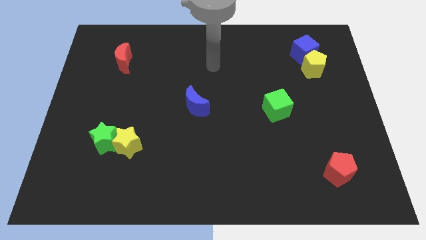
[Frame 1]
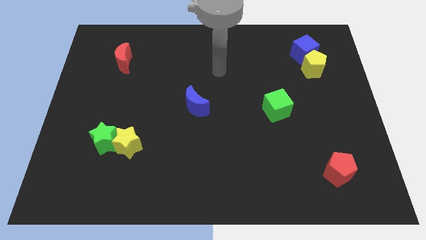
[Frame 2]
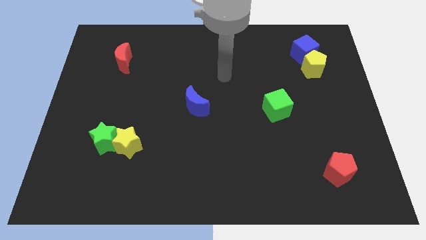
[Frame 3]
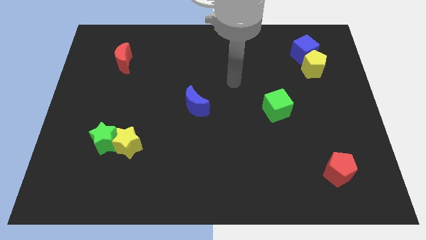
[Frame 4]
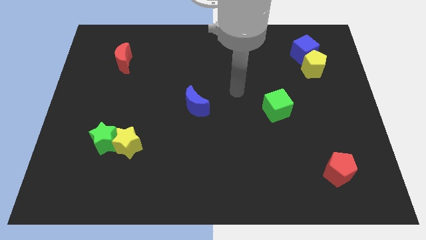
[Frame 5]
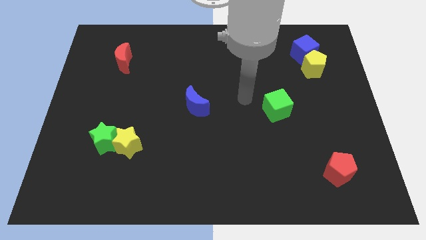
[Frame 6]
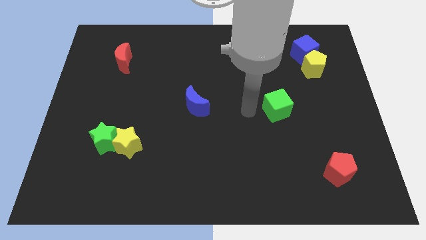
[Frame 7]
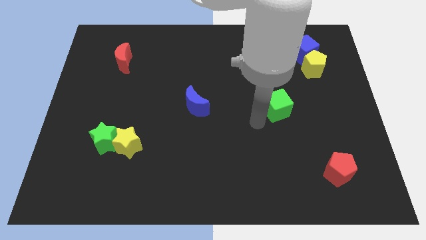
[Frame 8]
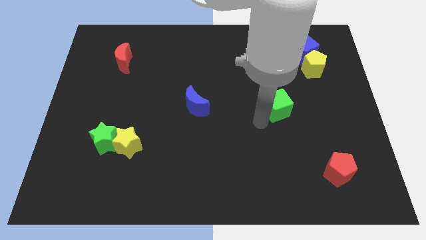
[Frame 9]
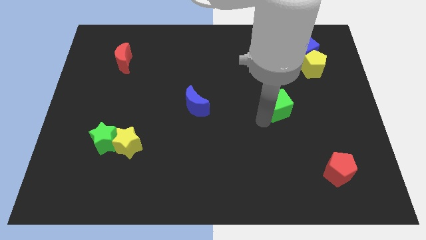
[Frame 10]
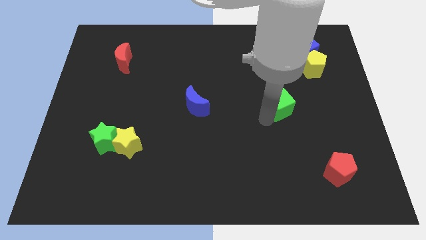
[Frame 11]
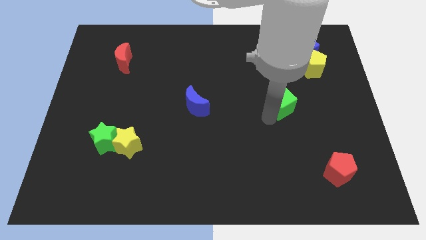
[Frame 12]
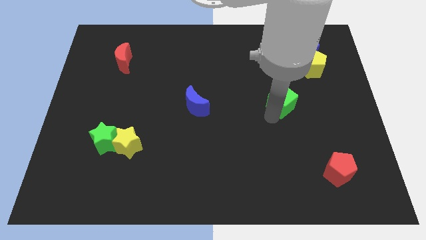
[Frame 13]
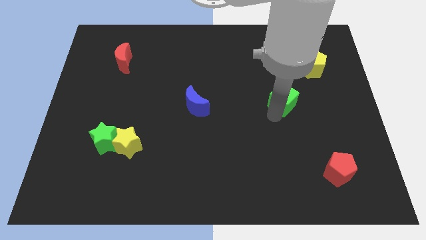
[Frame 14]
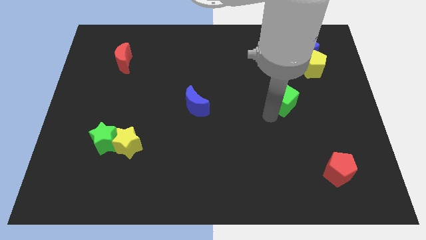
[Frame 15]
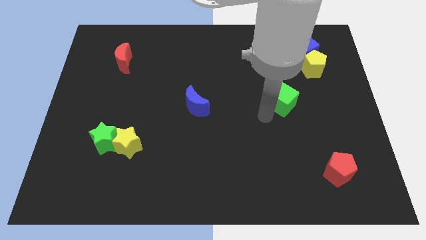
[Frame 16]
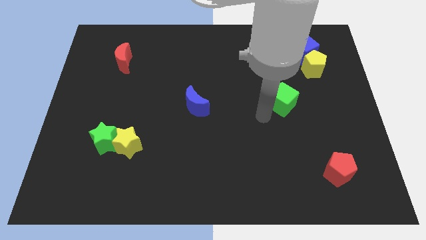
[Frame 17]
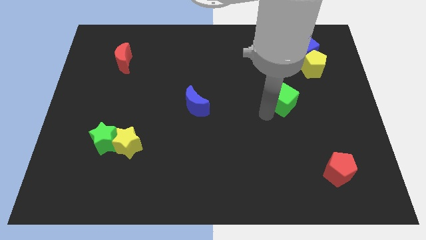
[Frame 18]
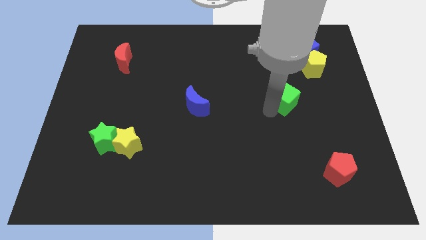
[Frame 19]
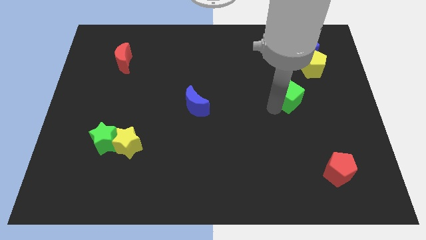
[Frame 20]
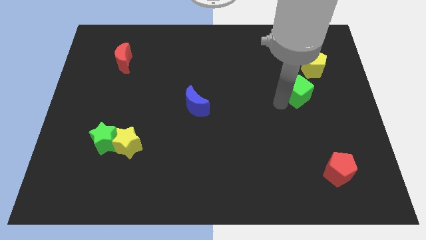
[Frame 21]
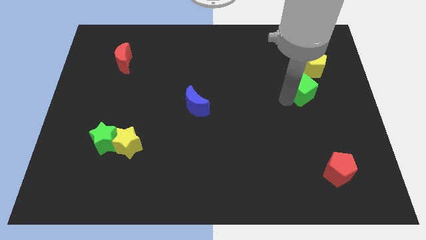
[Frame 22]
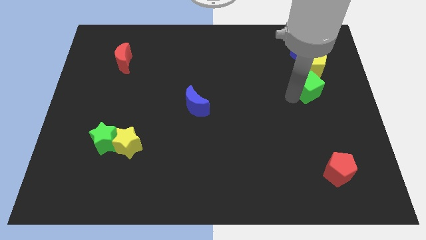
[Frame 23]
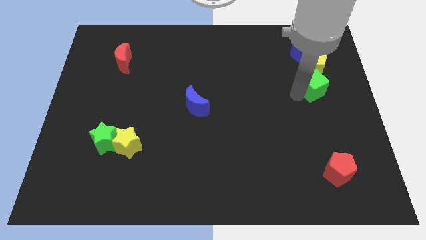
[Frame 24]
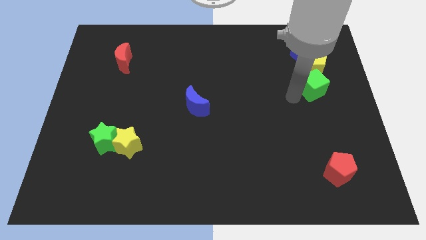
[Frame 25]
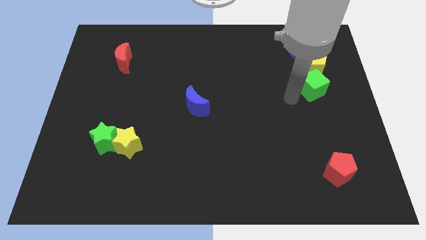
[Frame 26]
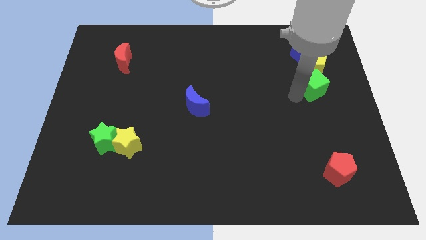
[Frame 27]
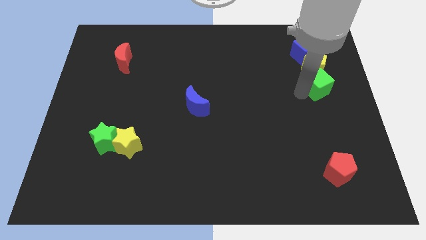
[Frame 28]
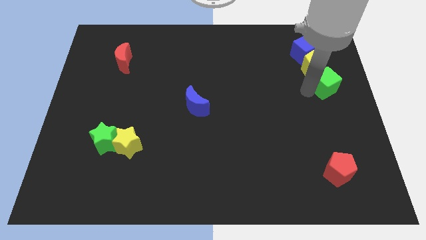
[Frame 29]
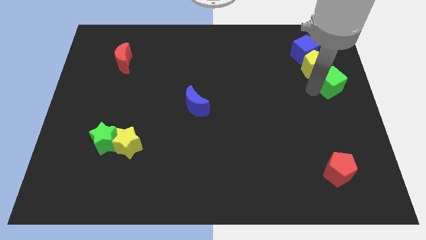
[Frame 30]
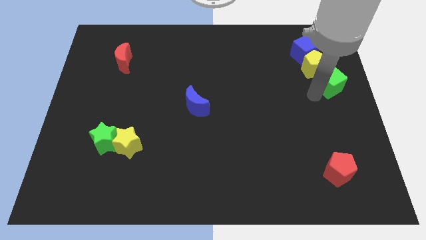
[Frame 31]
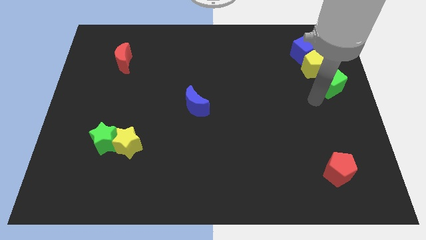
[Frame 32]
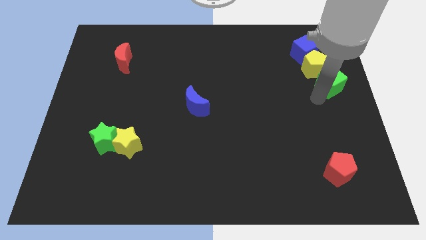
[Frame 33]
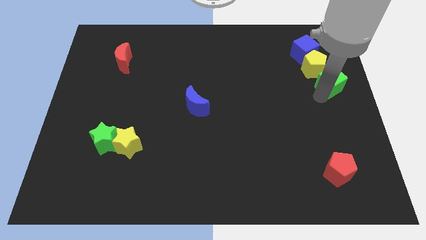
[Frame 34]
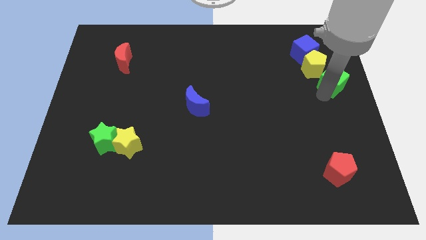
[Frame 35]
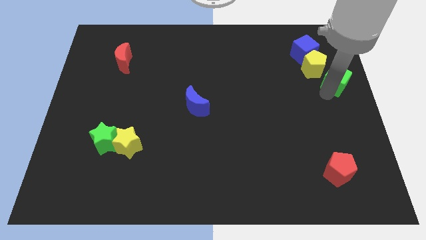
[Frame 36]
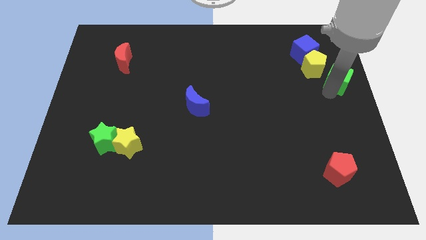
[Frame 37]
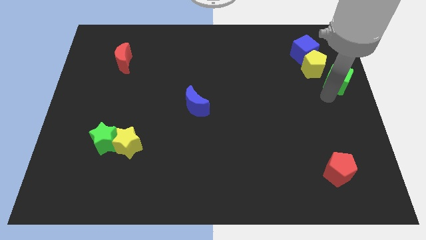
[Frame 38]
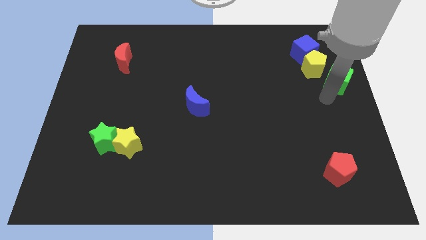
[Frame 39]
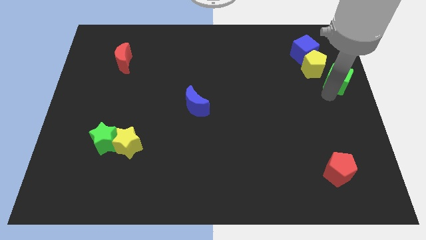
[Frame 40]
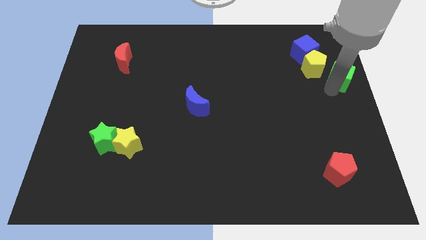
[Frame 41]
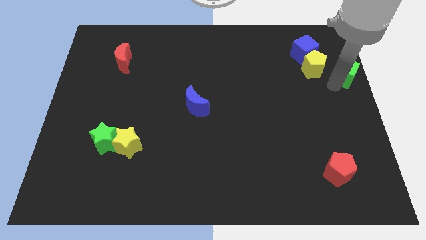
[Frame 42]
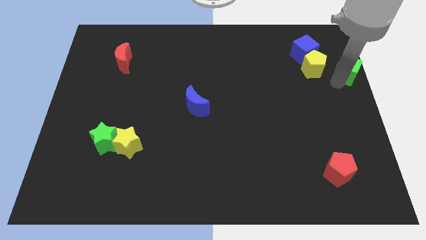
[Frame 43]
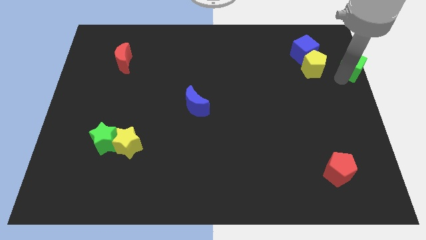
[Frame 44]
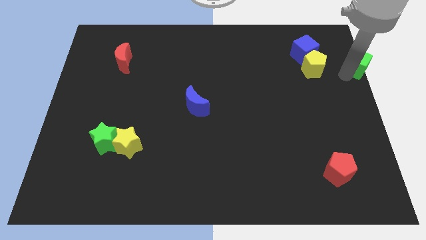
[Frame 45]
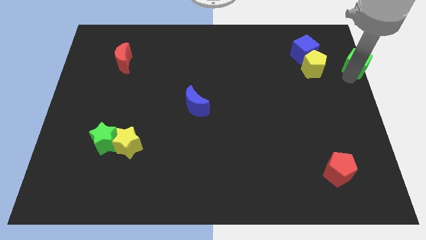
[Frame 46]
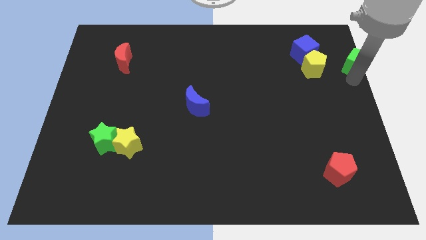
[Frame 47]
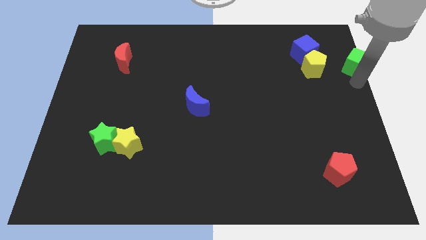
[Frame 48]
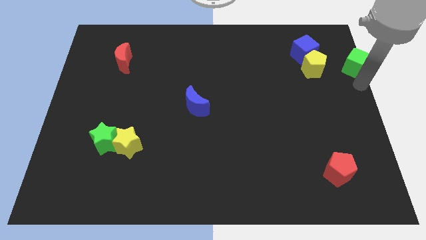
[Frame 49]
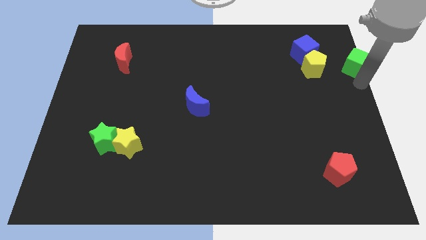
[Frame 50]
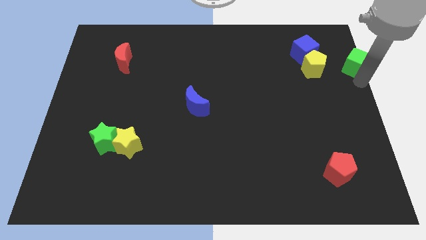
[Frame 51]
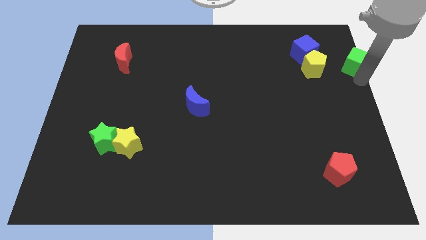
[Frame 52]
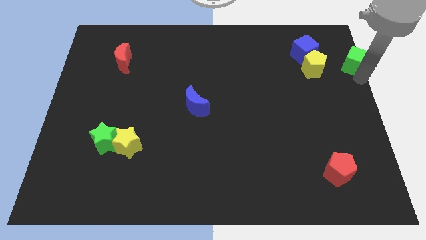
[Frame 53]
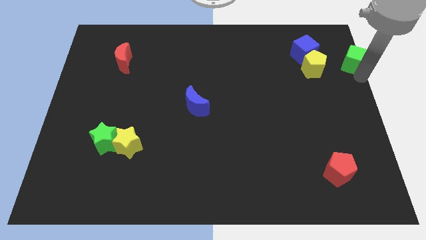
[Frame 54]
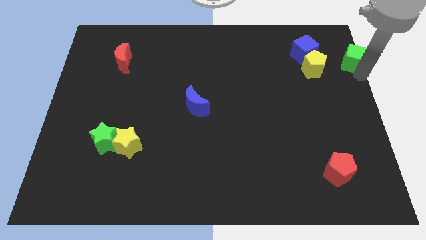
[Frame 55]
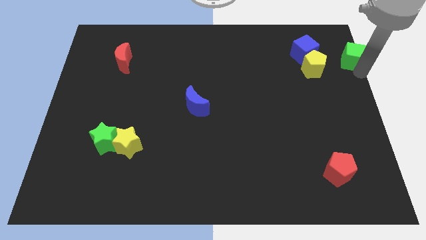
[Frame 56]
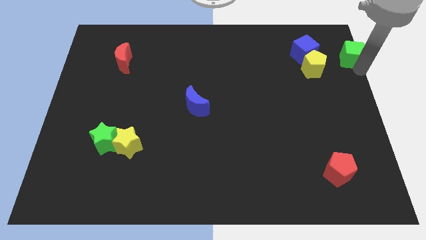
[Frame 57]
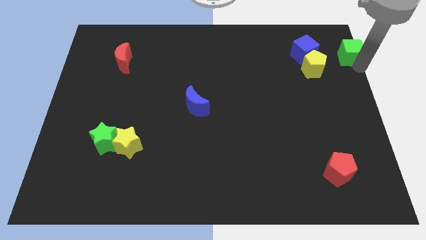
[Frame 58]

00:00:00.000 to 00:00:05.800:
put the green cube to the top right
